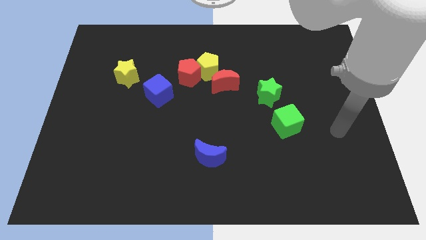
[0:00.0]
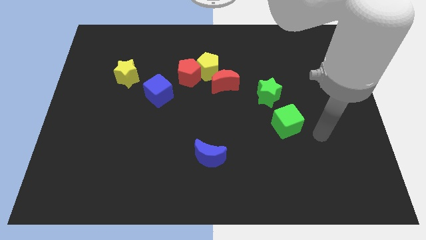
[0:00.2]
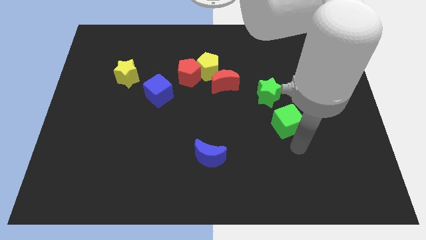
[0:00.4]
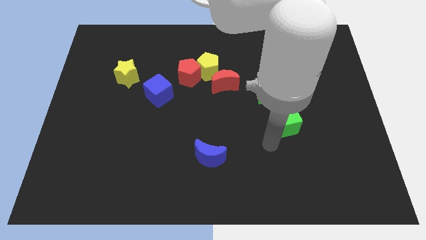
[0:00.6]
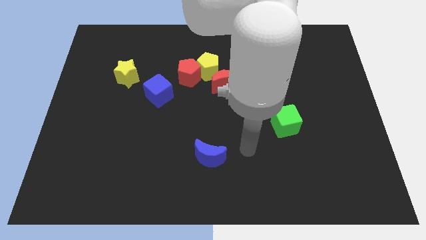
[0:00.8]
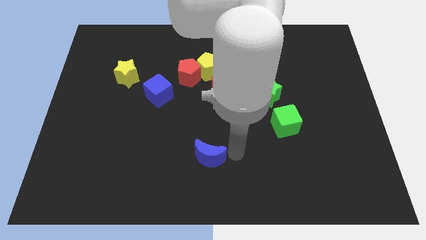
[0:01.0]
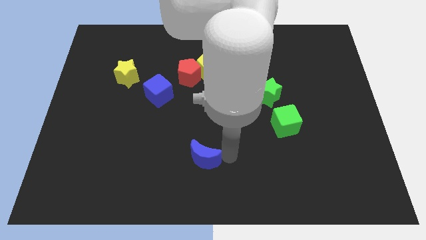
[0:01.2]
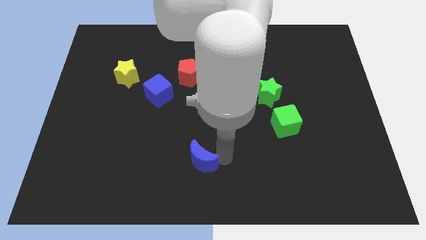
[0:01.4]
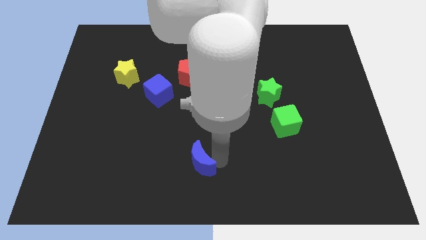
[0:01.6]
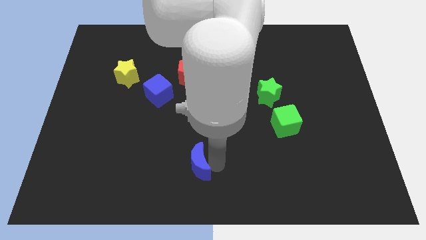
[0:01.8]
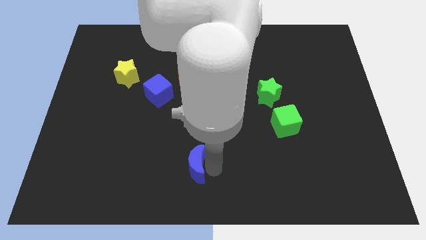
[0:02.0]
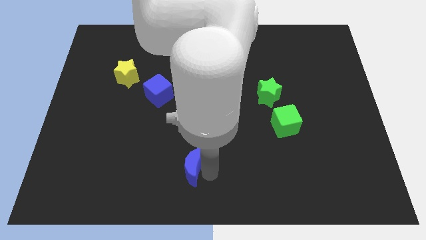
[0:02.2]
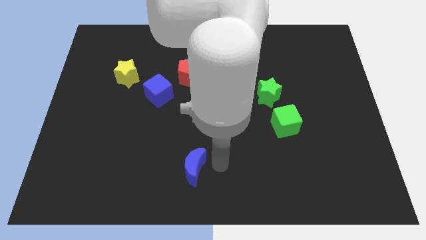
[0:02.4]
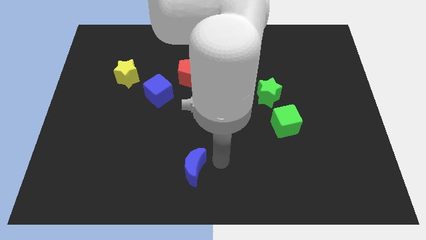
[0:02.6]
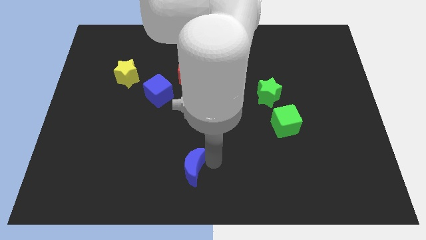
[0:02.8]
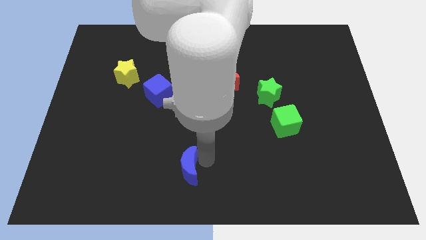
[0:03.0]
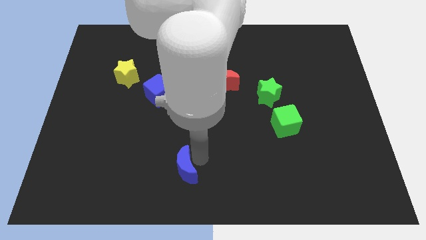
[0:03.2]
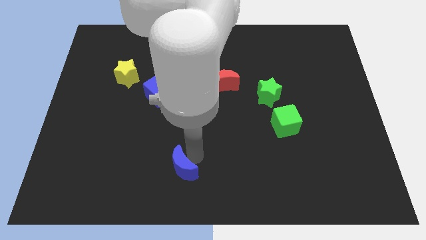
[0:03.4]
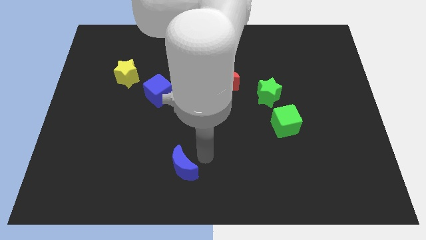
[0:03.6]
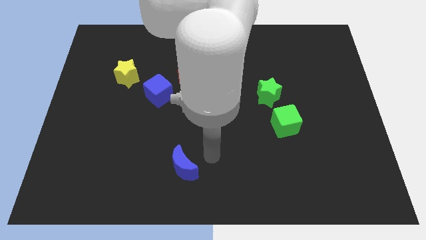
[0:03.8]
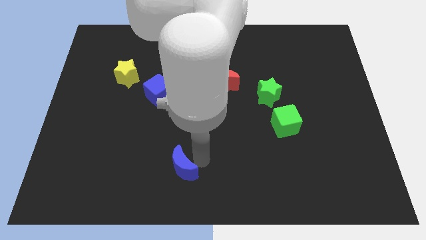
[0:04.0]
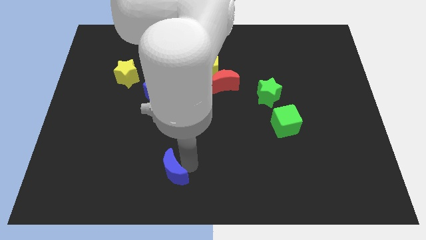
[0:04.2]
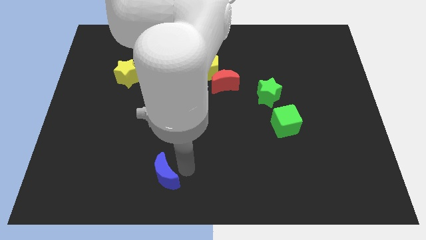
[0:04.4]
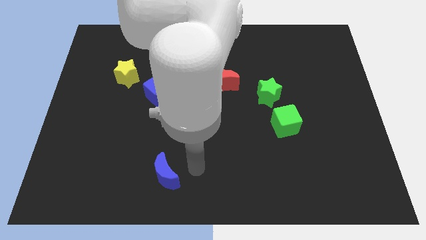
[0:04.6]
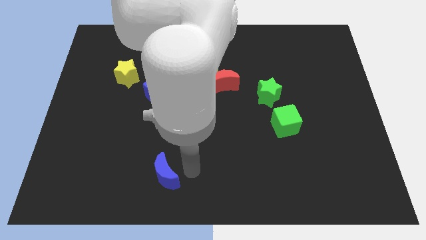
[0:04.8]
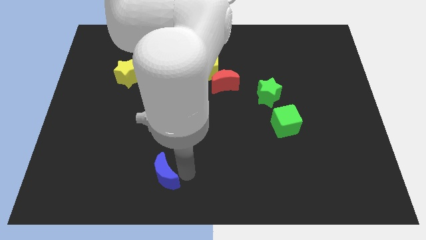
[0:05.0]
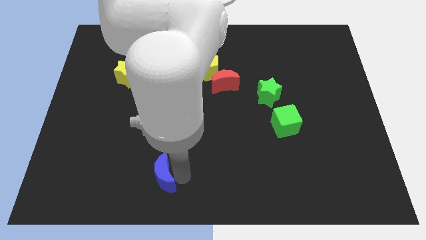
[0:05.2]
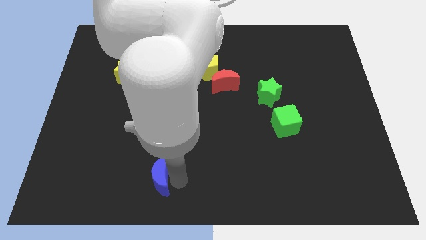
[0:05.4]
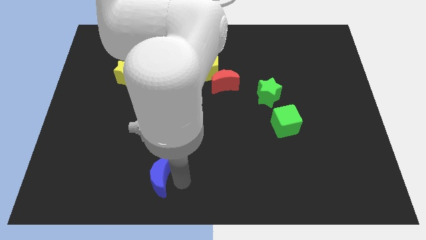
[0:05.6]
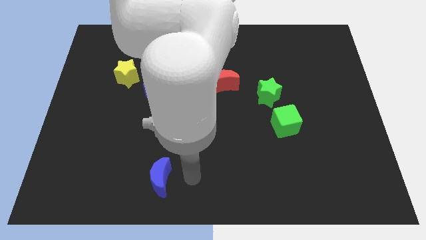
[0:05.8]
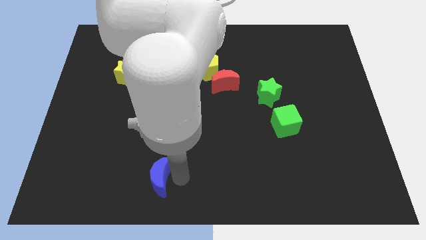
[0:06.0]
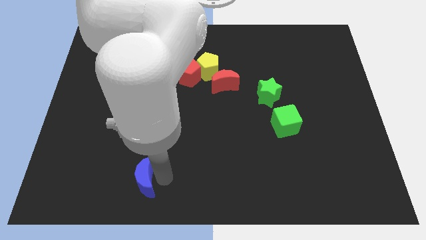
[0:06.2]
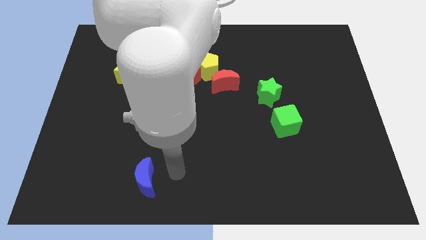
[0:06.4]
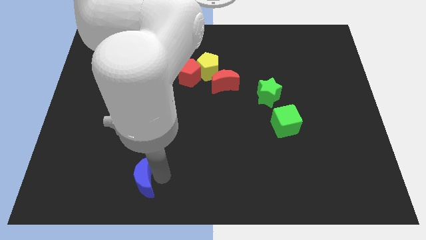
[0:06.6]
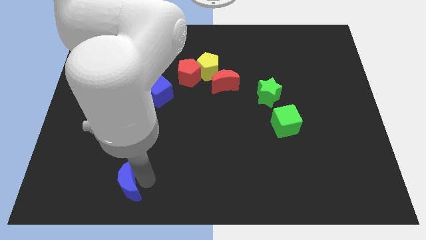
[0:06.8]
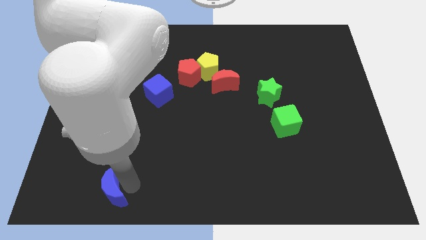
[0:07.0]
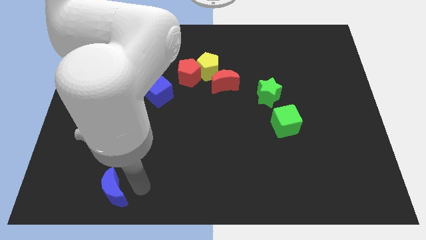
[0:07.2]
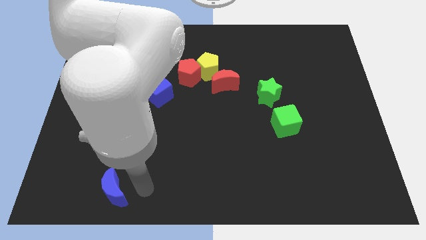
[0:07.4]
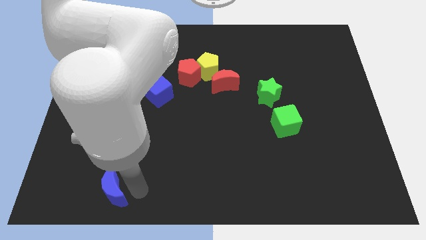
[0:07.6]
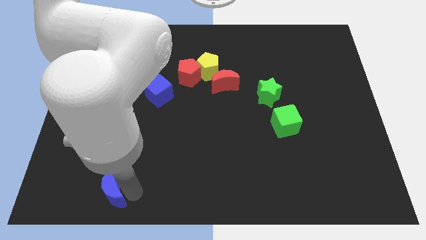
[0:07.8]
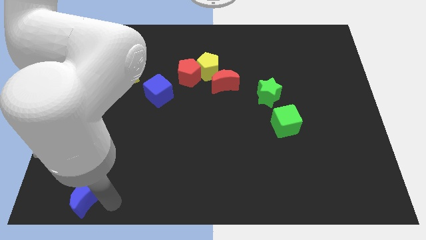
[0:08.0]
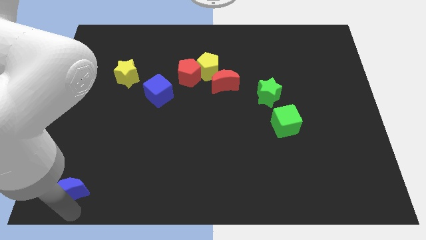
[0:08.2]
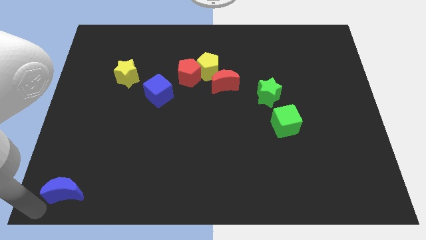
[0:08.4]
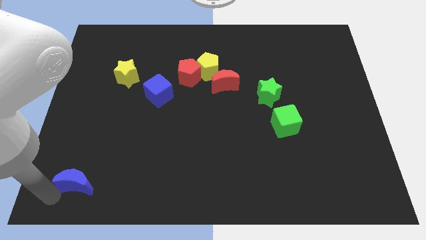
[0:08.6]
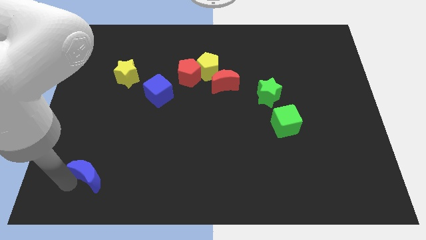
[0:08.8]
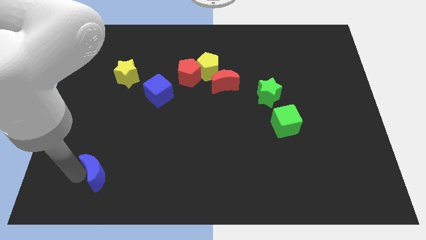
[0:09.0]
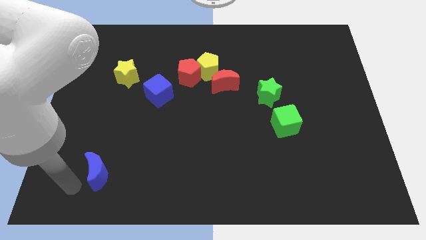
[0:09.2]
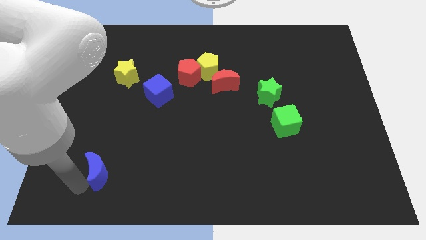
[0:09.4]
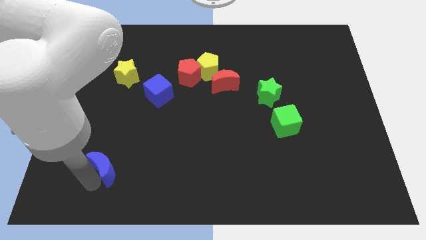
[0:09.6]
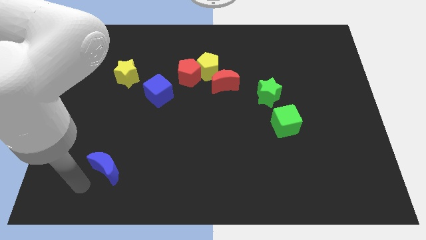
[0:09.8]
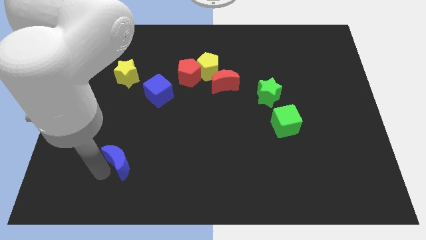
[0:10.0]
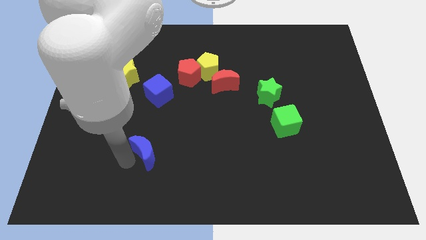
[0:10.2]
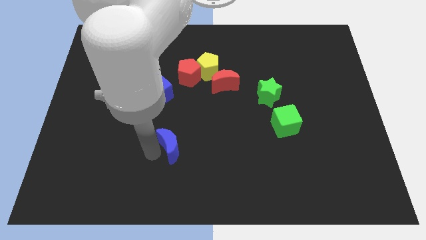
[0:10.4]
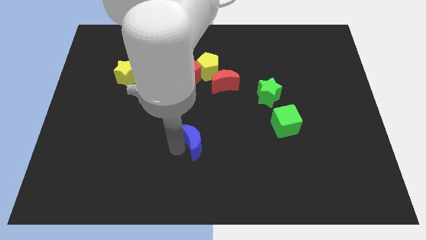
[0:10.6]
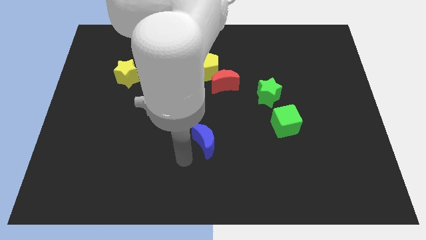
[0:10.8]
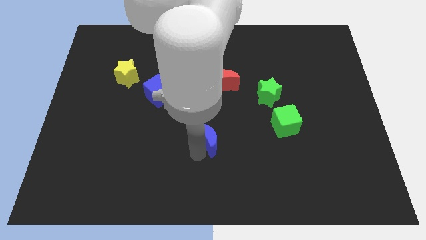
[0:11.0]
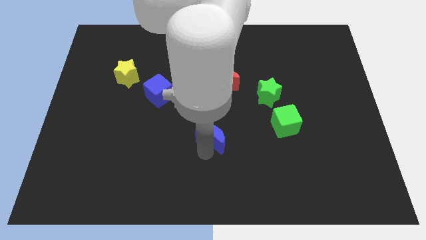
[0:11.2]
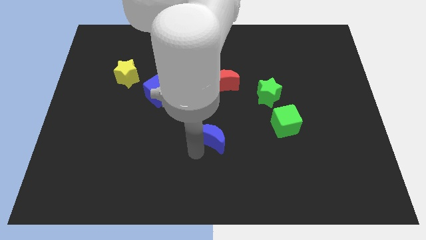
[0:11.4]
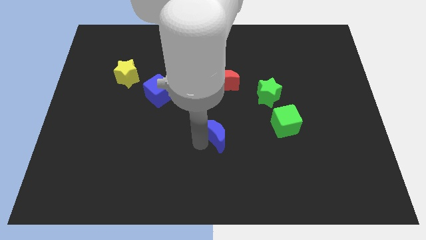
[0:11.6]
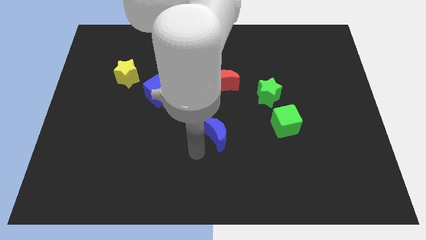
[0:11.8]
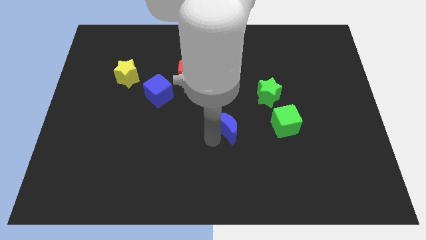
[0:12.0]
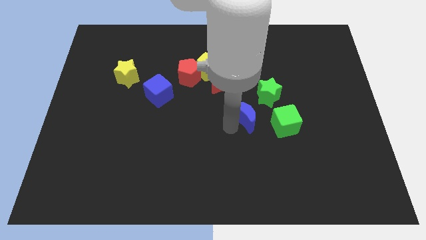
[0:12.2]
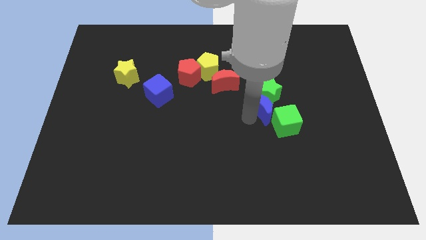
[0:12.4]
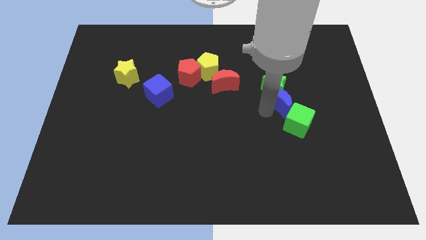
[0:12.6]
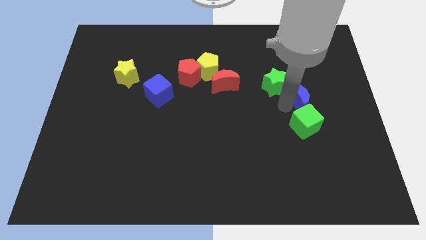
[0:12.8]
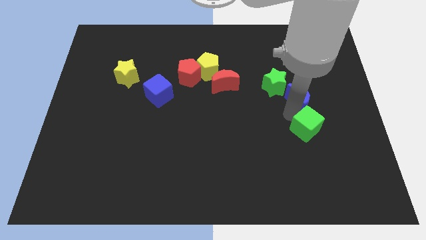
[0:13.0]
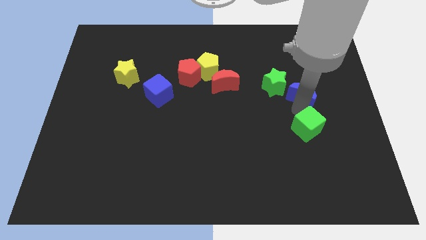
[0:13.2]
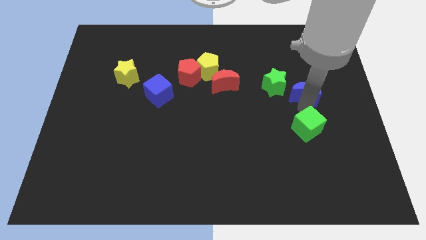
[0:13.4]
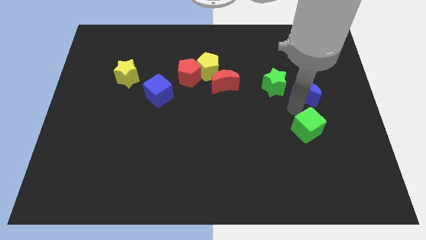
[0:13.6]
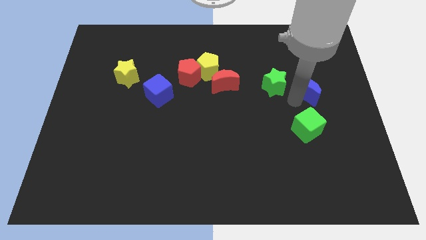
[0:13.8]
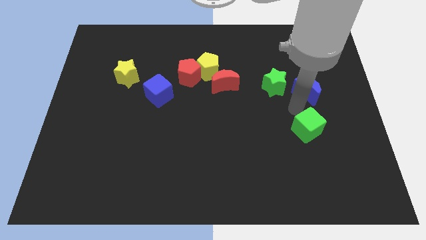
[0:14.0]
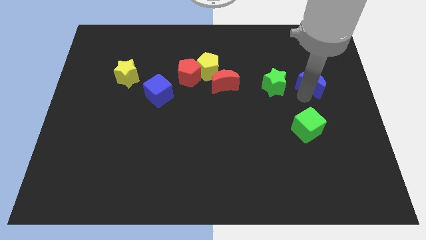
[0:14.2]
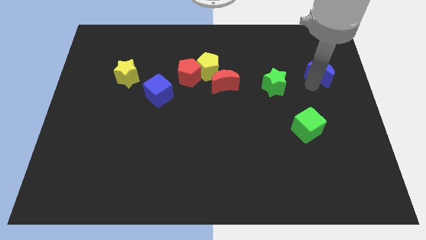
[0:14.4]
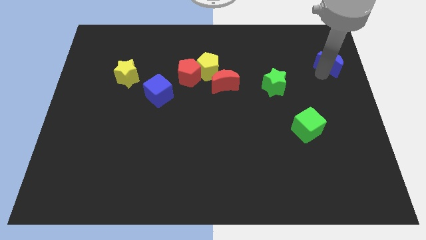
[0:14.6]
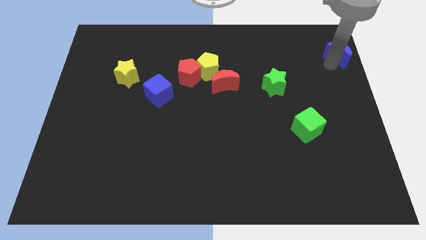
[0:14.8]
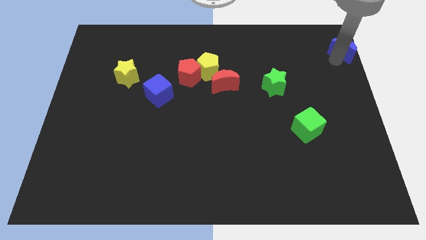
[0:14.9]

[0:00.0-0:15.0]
slide the blue moon to the top right of the board
